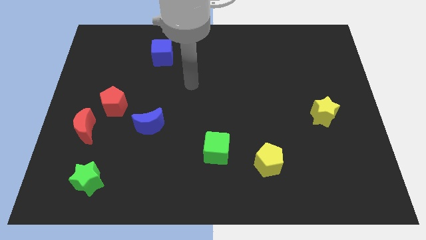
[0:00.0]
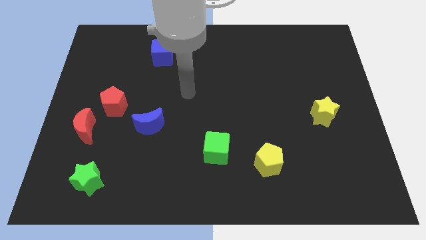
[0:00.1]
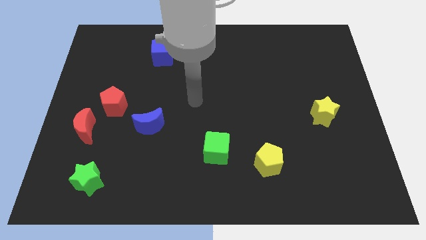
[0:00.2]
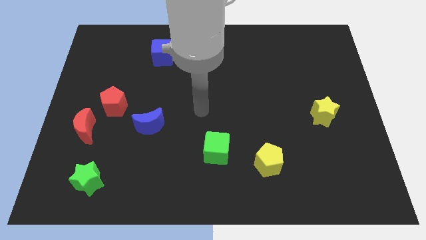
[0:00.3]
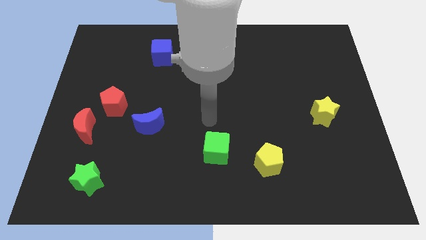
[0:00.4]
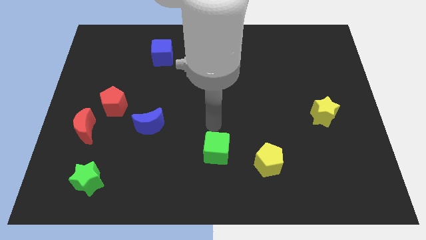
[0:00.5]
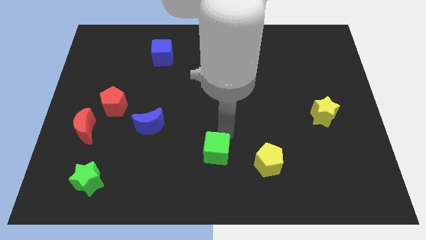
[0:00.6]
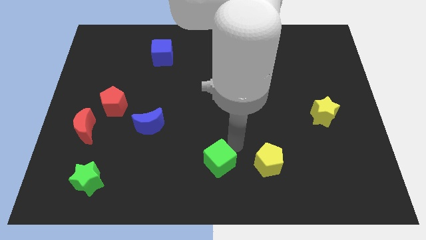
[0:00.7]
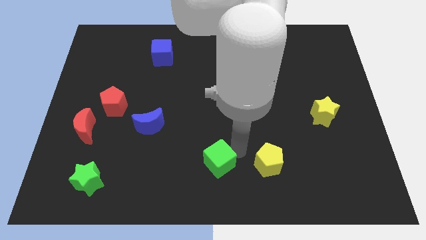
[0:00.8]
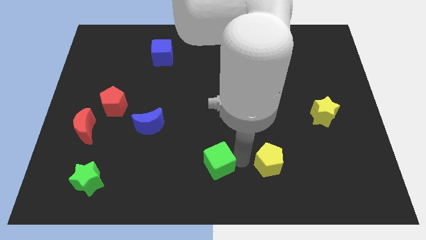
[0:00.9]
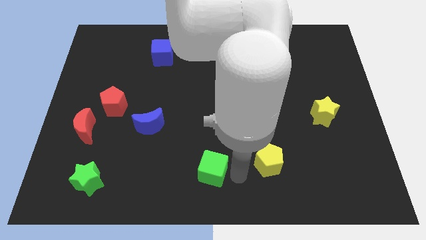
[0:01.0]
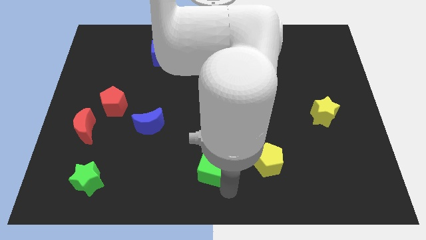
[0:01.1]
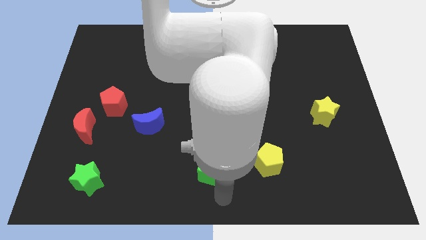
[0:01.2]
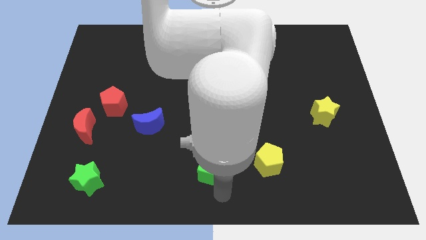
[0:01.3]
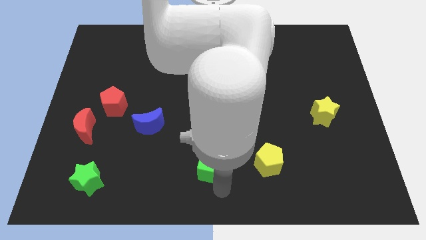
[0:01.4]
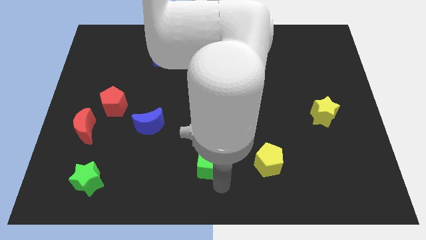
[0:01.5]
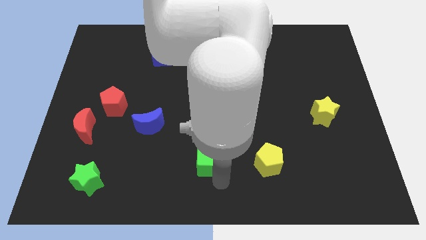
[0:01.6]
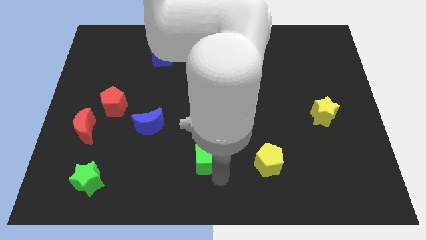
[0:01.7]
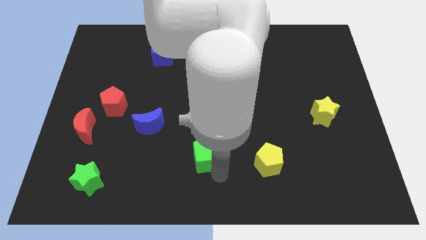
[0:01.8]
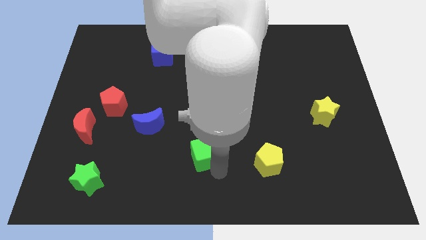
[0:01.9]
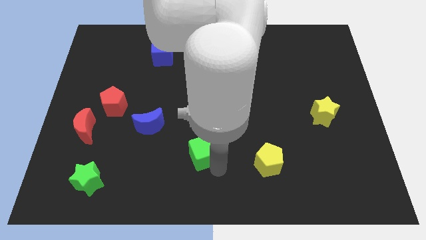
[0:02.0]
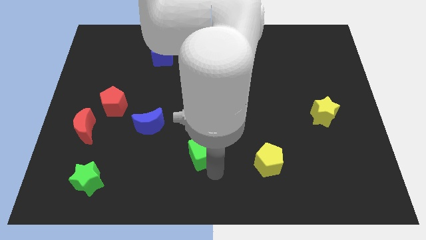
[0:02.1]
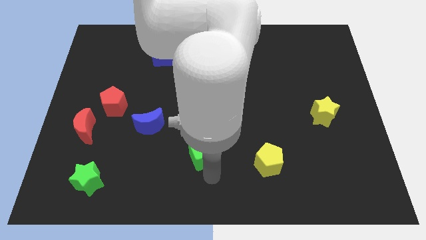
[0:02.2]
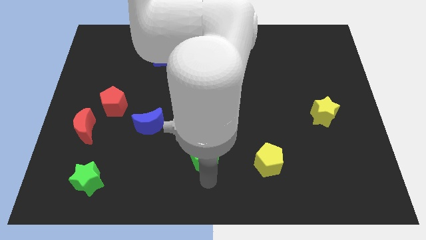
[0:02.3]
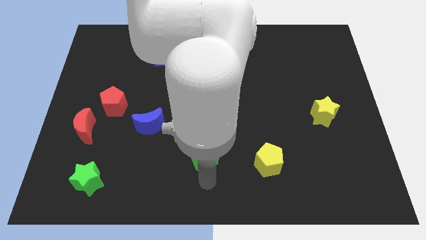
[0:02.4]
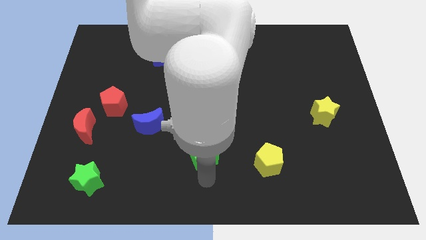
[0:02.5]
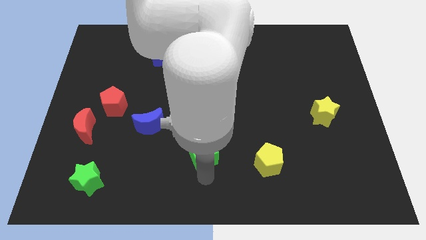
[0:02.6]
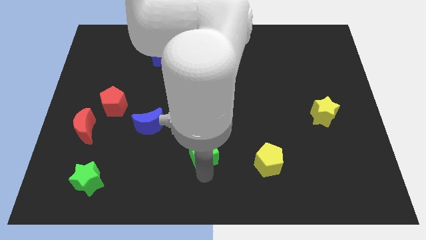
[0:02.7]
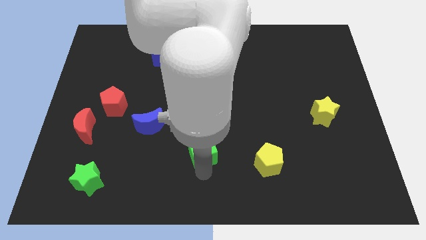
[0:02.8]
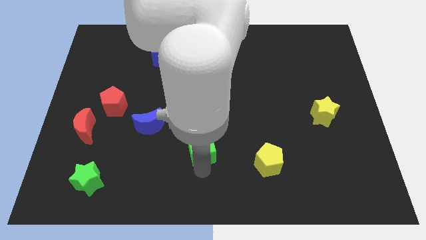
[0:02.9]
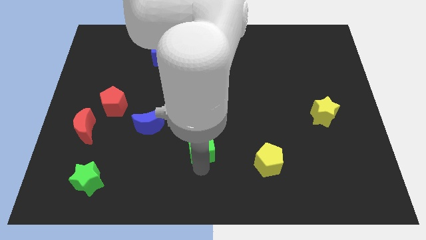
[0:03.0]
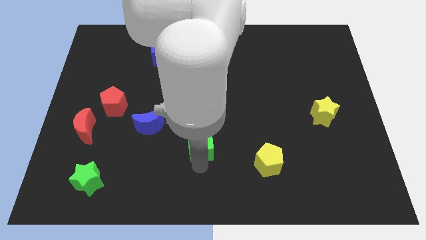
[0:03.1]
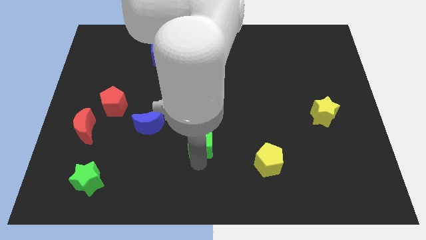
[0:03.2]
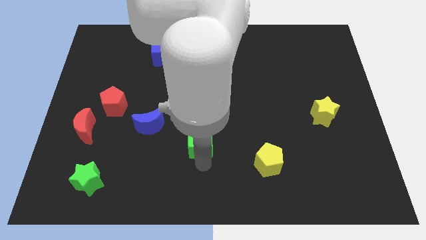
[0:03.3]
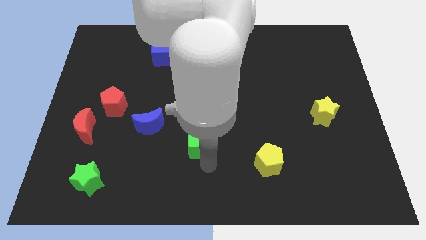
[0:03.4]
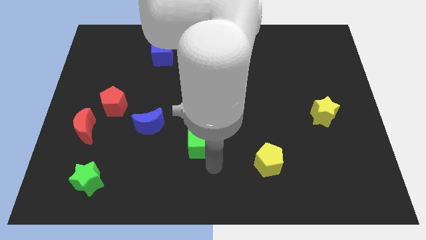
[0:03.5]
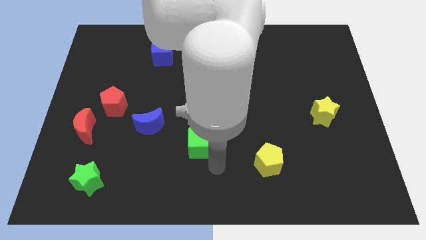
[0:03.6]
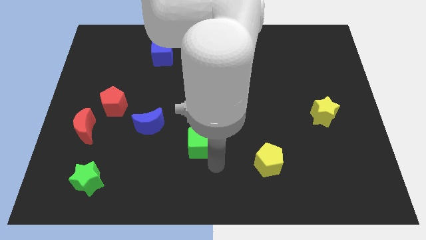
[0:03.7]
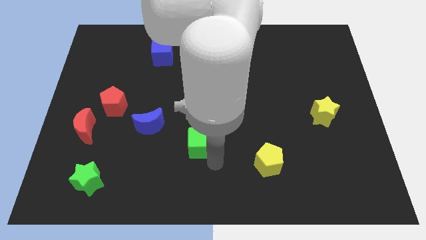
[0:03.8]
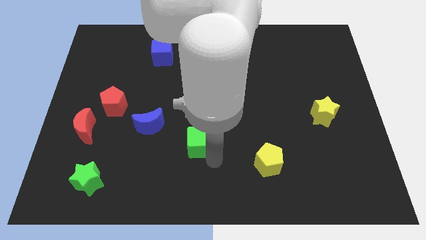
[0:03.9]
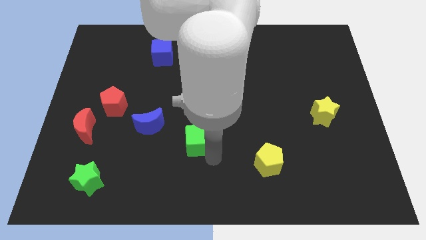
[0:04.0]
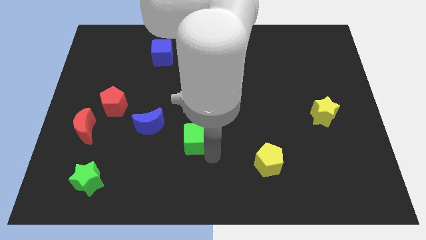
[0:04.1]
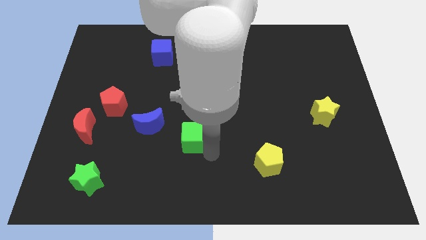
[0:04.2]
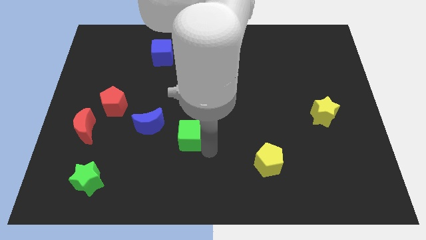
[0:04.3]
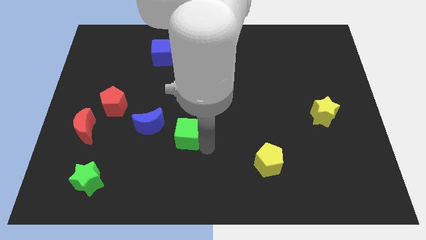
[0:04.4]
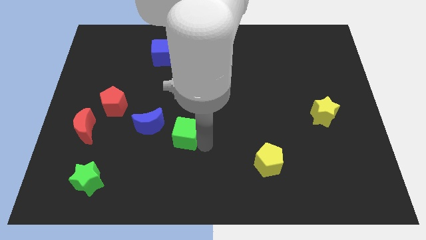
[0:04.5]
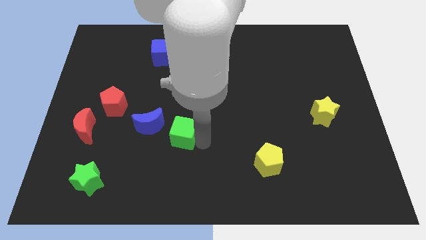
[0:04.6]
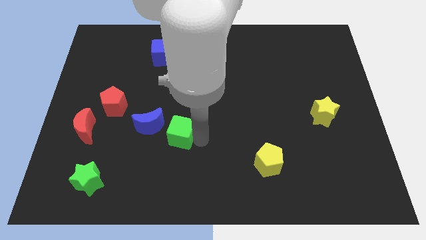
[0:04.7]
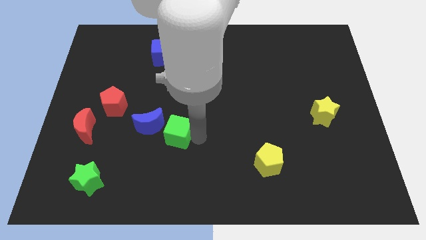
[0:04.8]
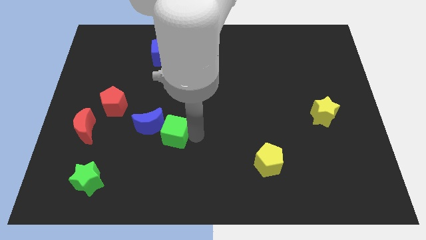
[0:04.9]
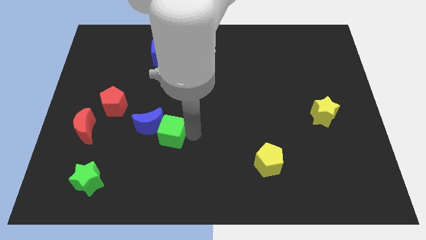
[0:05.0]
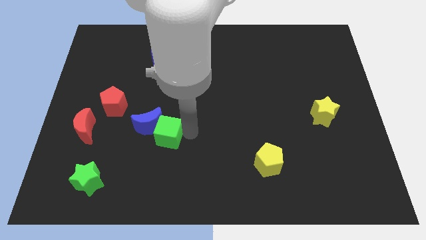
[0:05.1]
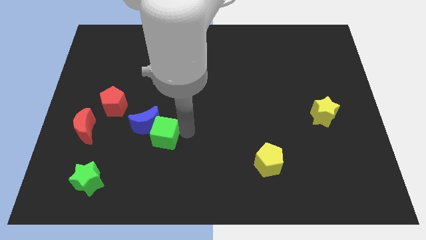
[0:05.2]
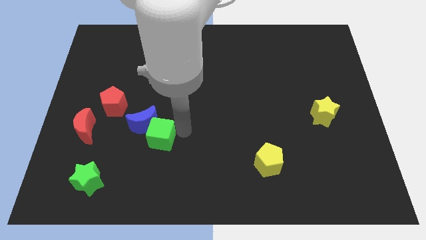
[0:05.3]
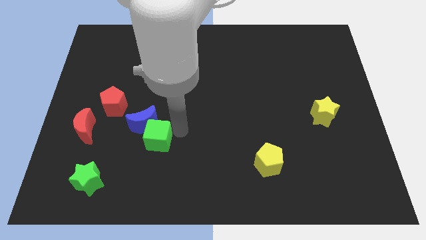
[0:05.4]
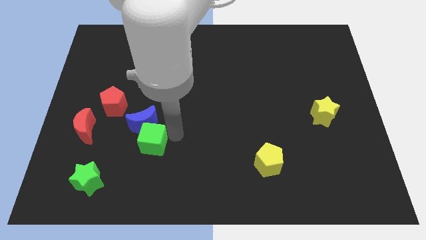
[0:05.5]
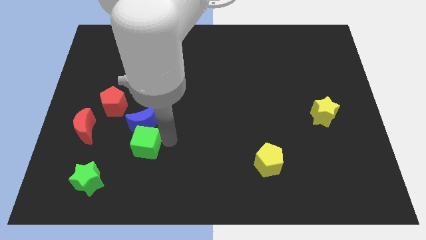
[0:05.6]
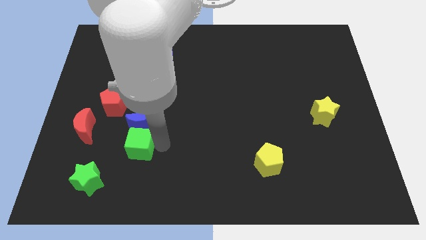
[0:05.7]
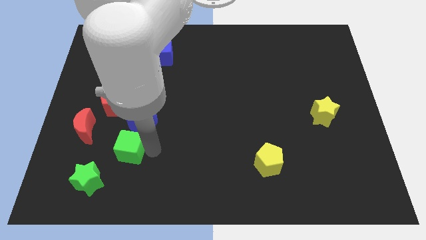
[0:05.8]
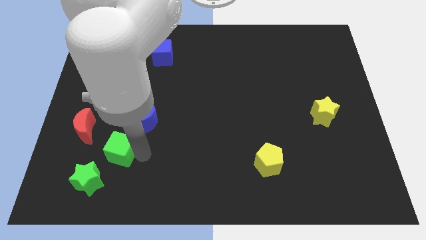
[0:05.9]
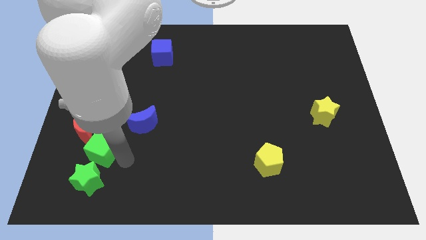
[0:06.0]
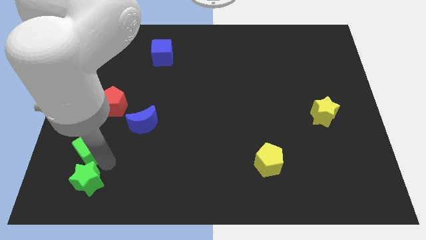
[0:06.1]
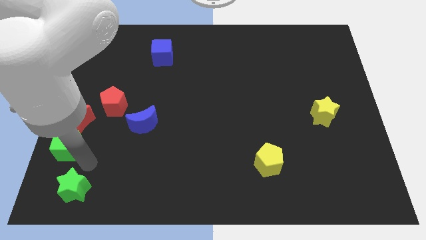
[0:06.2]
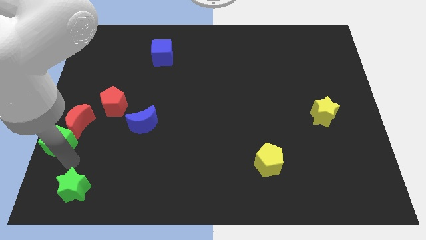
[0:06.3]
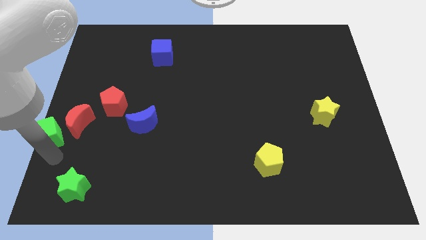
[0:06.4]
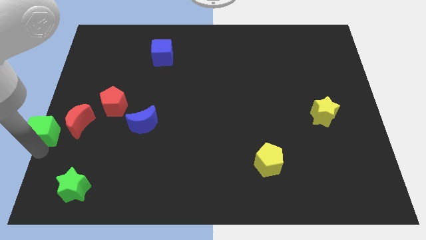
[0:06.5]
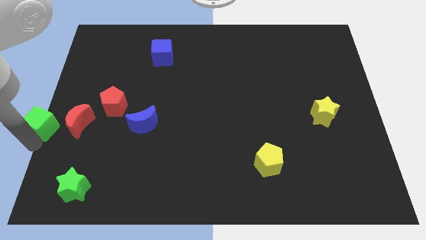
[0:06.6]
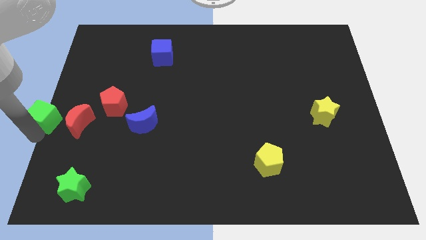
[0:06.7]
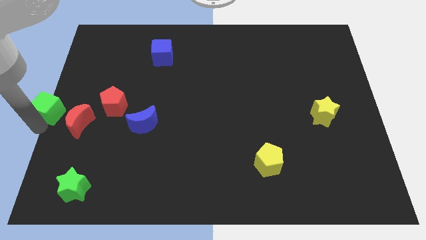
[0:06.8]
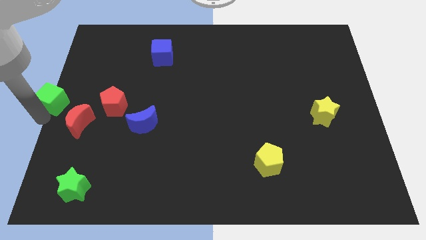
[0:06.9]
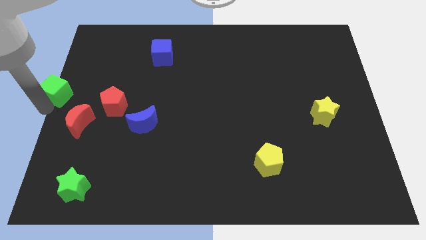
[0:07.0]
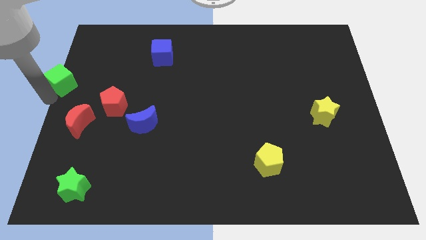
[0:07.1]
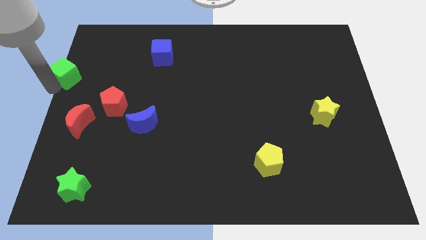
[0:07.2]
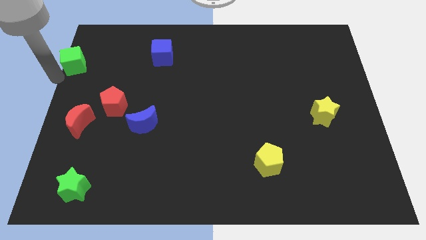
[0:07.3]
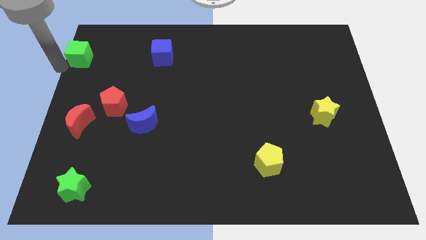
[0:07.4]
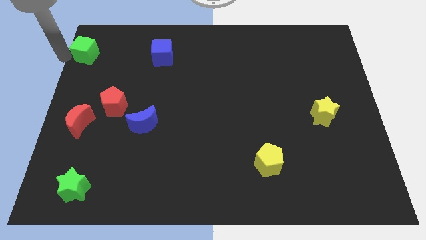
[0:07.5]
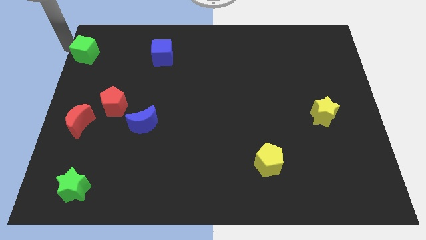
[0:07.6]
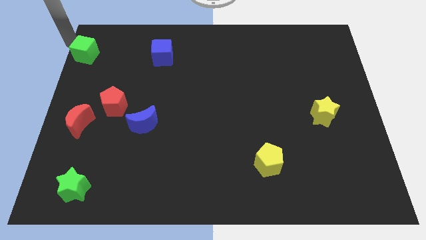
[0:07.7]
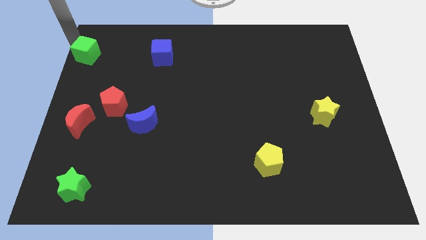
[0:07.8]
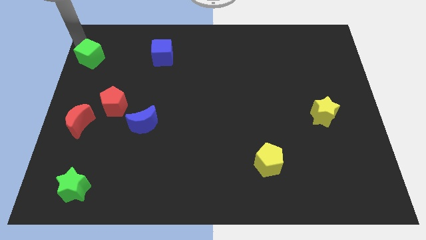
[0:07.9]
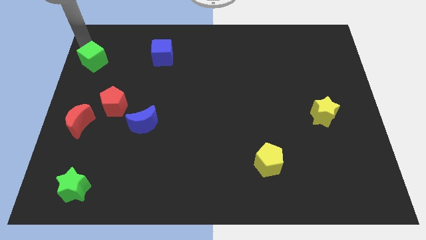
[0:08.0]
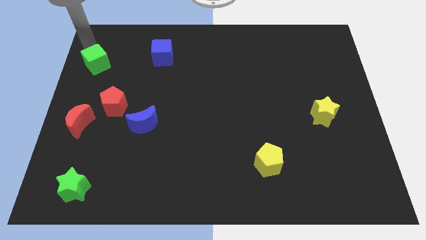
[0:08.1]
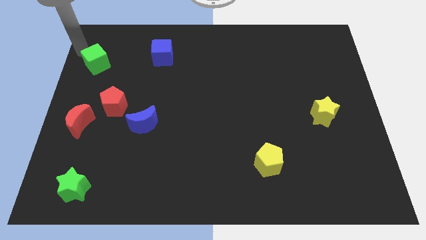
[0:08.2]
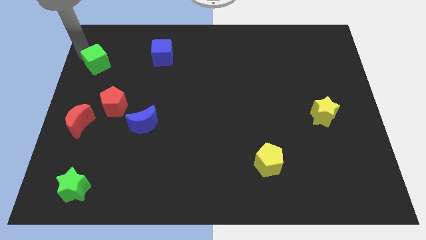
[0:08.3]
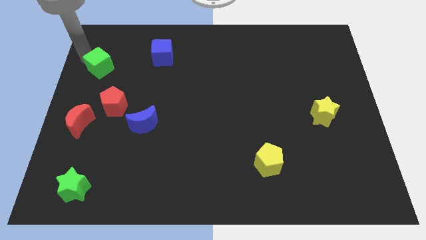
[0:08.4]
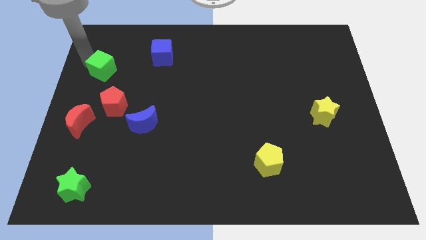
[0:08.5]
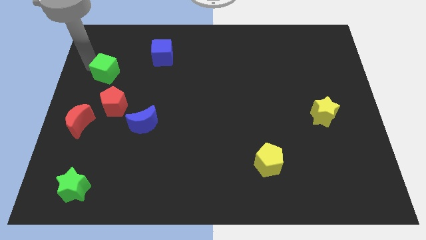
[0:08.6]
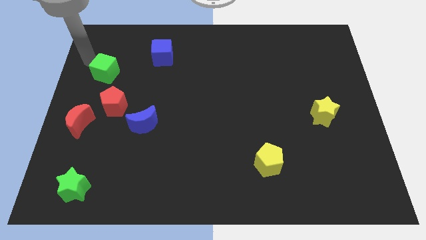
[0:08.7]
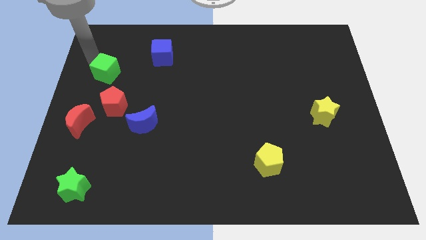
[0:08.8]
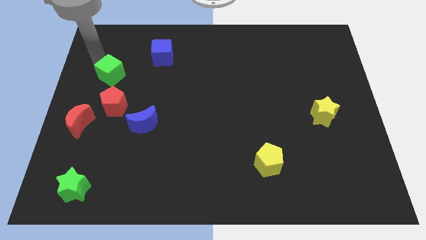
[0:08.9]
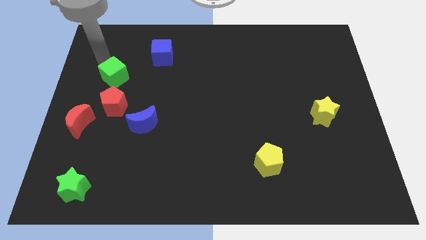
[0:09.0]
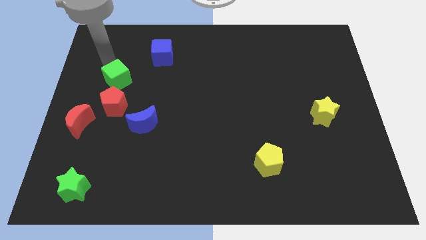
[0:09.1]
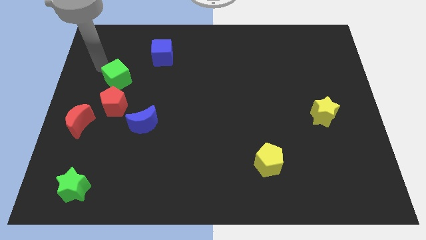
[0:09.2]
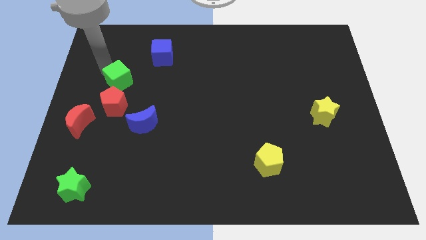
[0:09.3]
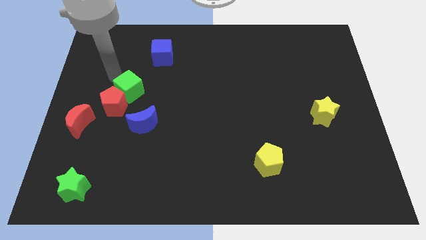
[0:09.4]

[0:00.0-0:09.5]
put the green cube to the top left of the blue moon
